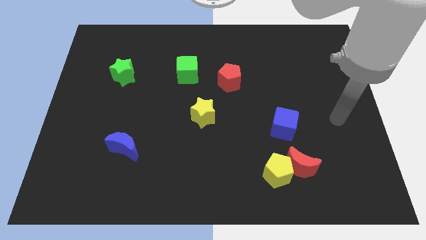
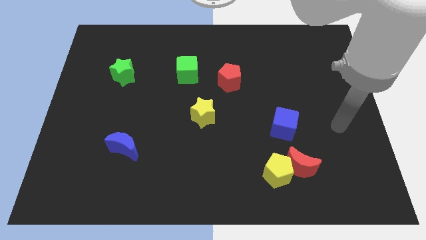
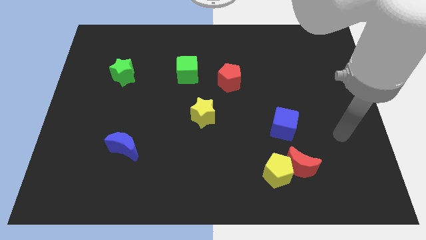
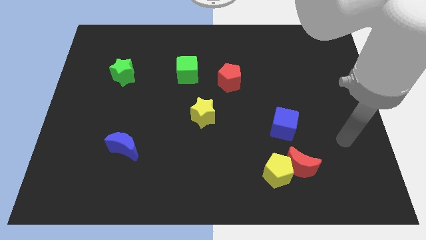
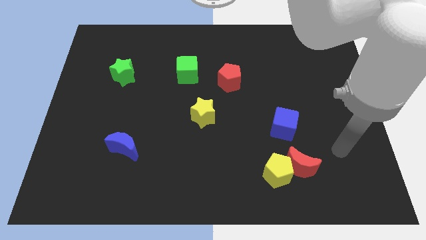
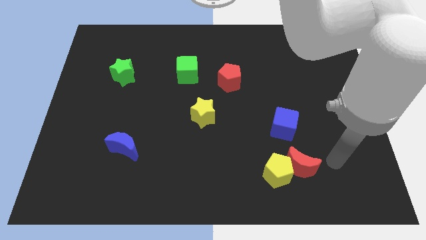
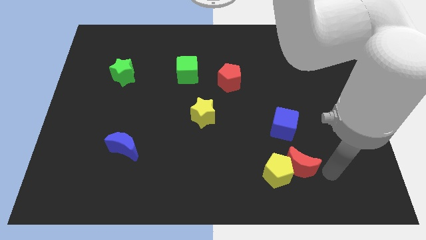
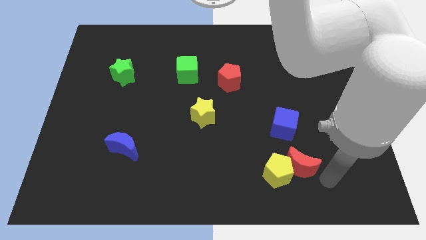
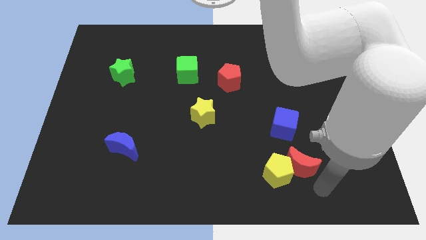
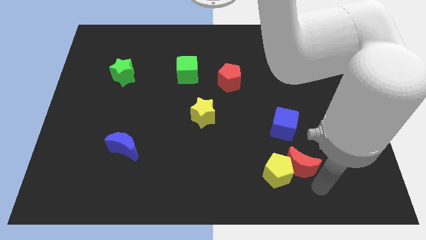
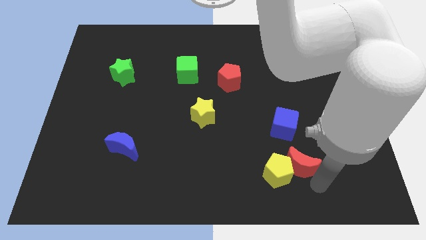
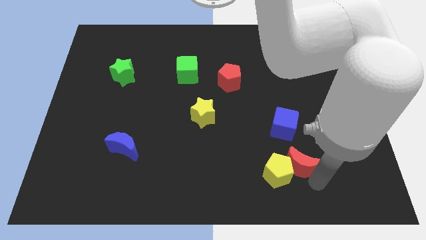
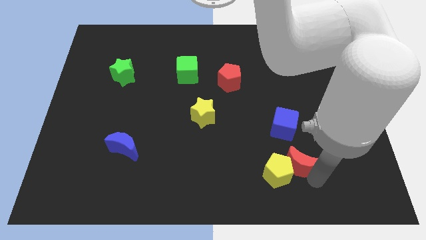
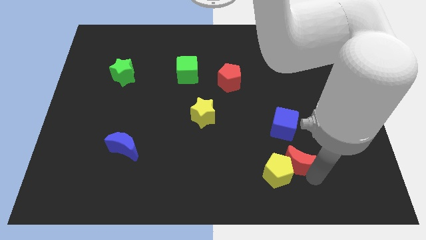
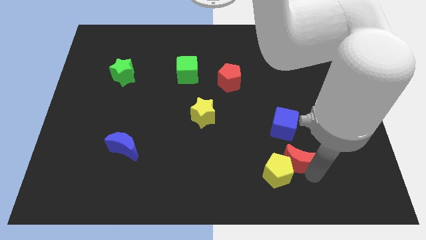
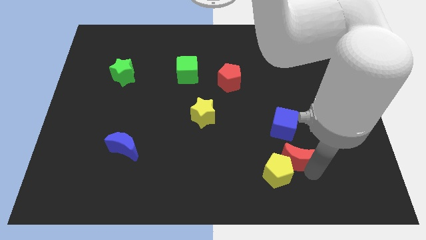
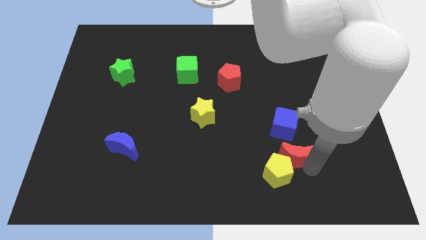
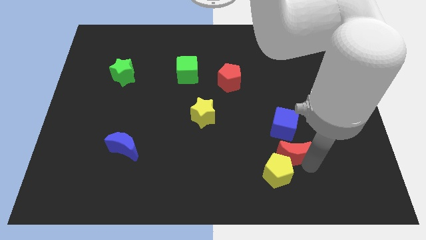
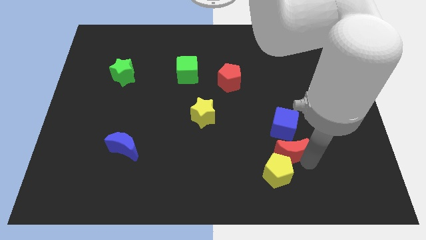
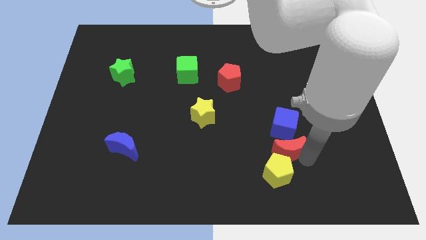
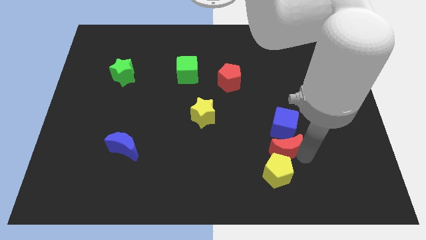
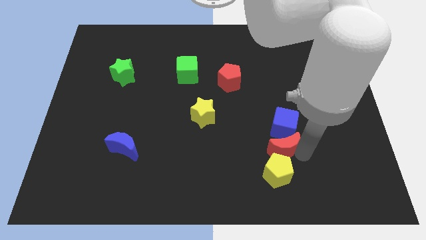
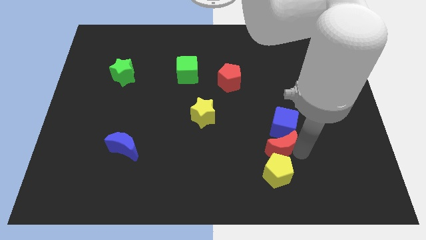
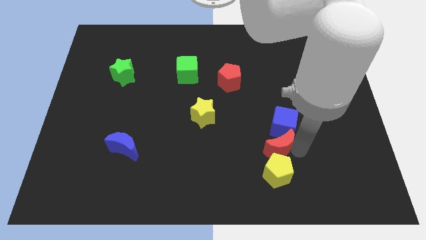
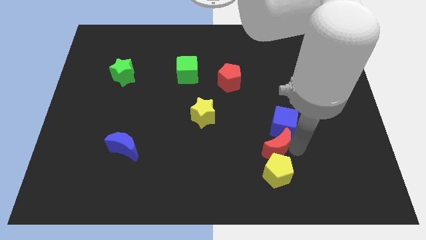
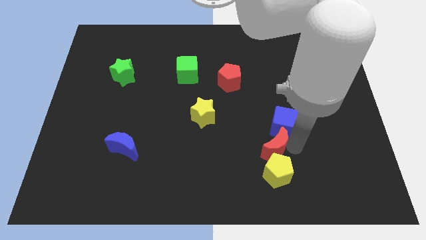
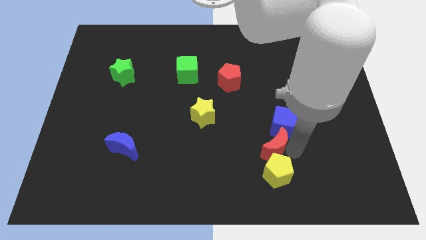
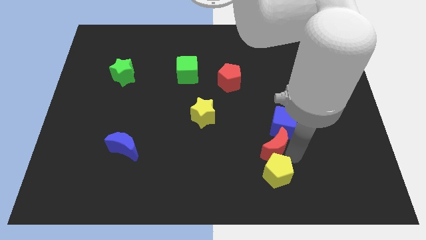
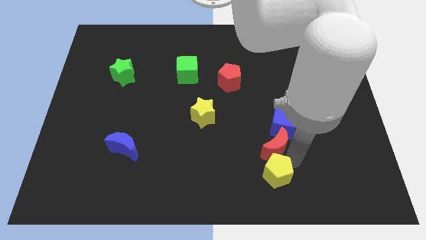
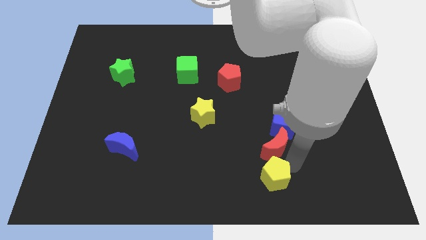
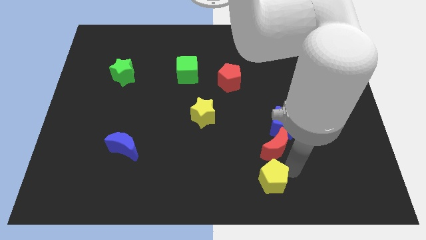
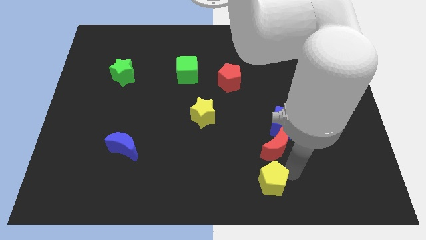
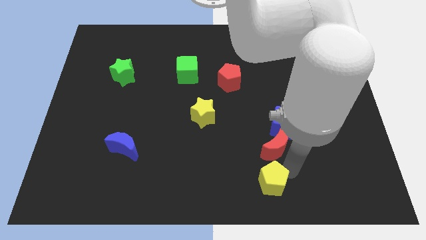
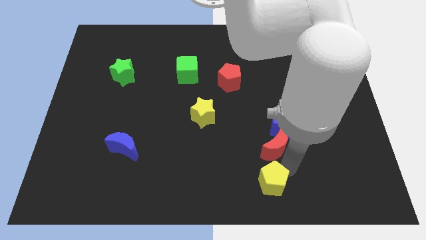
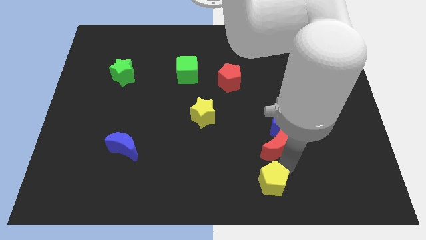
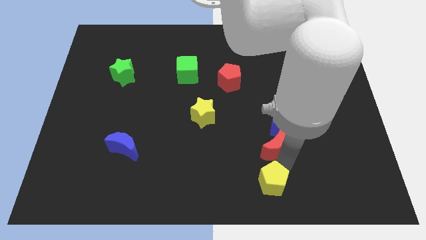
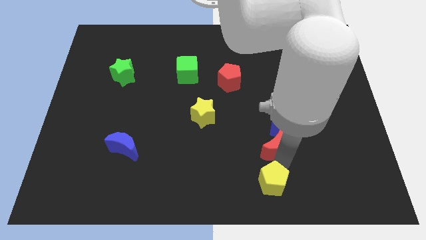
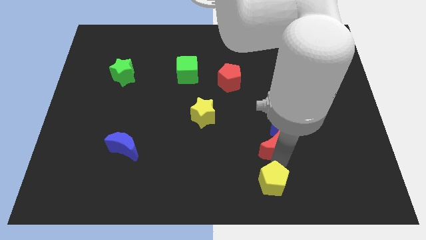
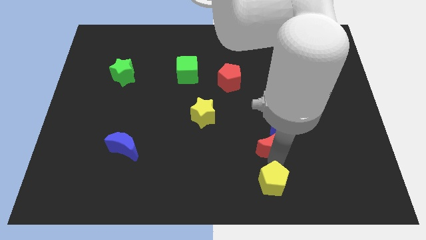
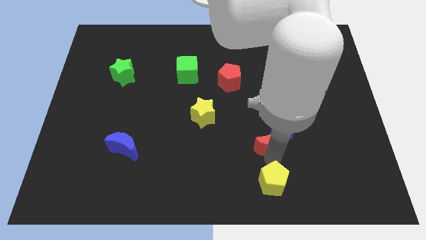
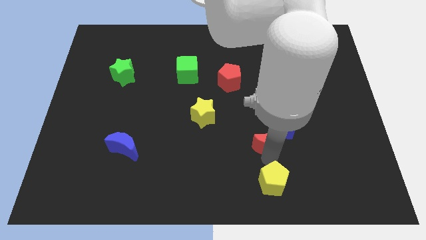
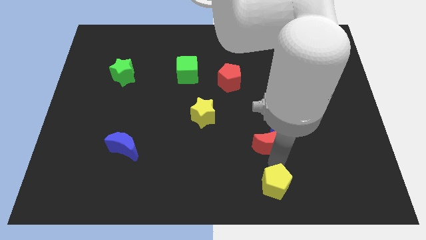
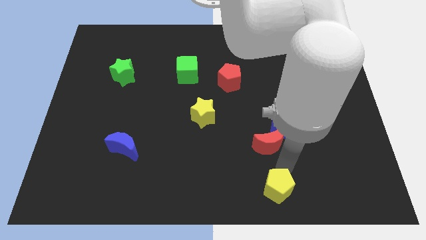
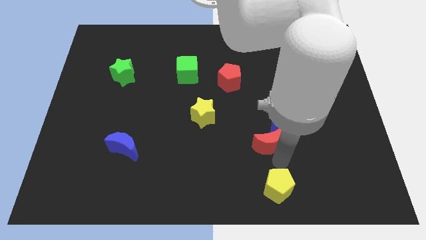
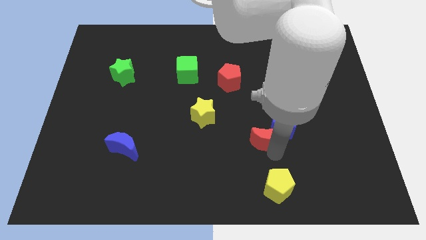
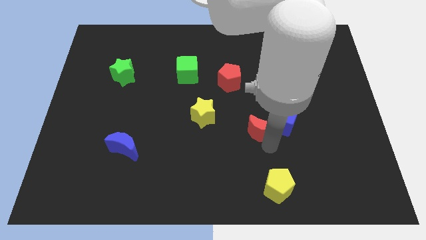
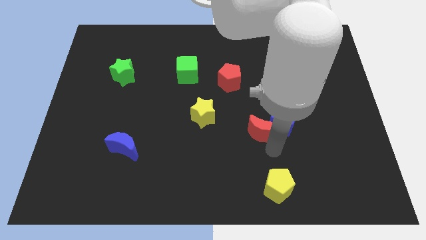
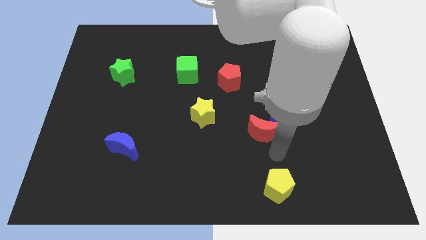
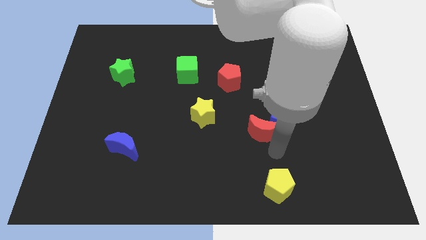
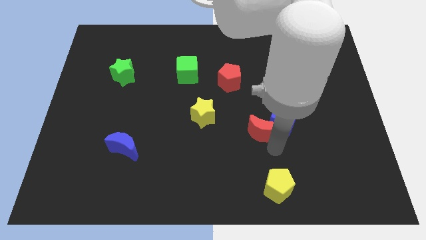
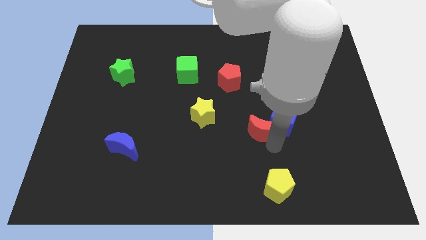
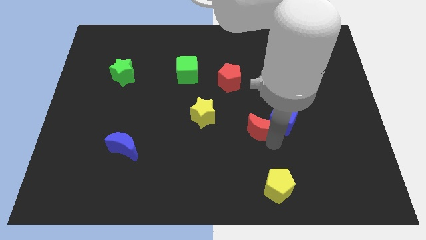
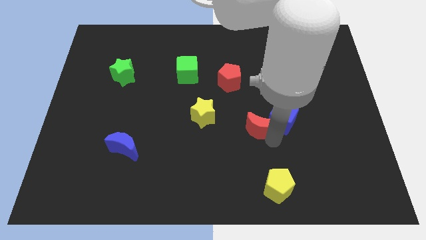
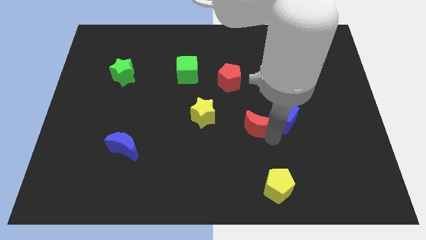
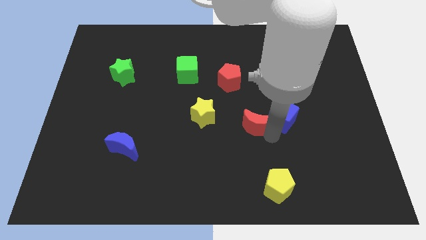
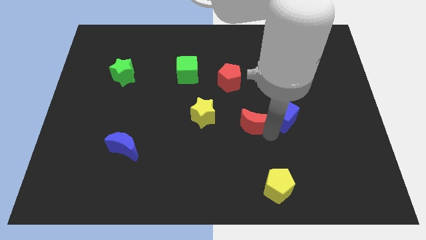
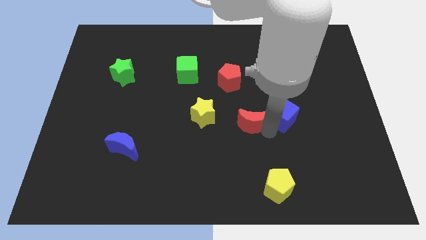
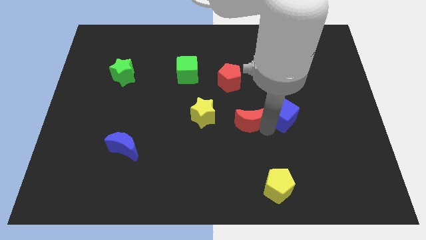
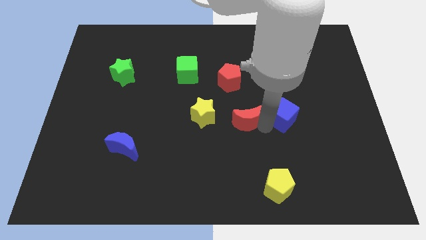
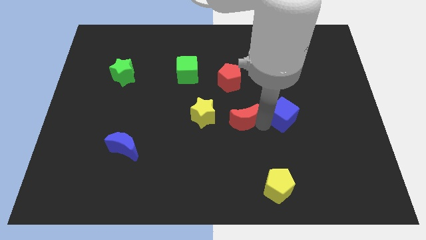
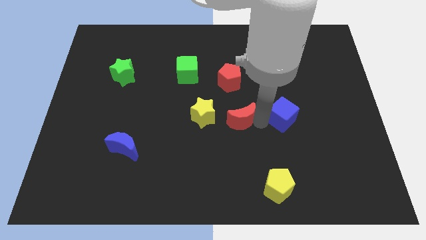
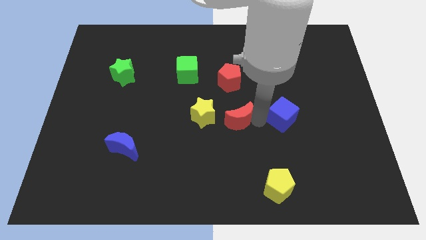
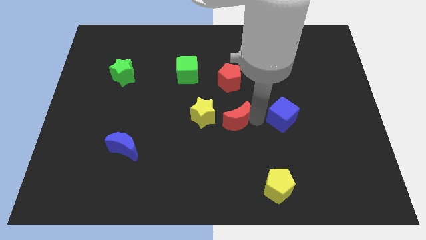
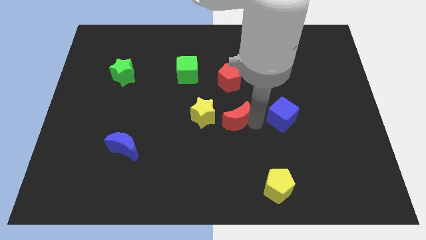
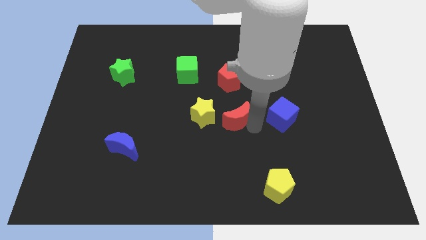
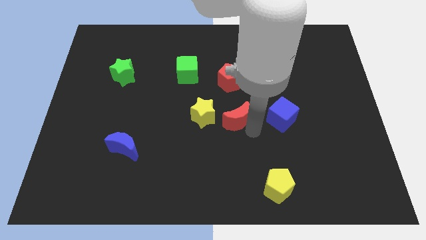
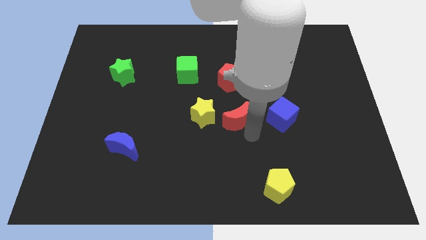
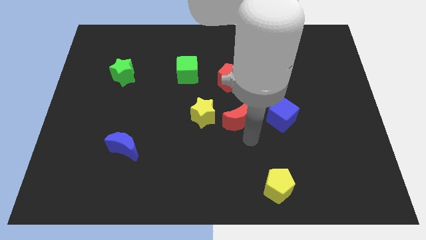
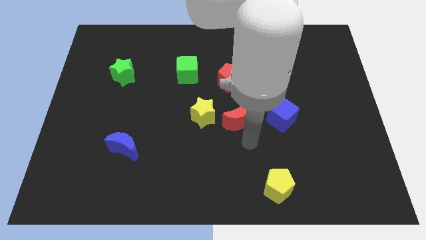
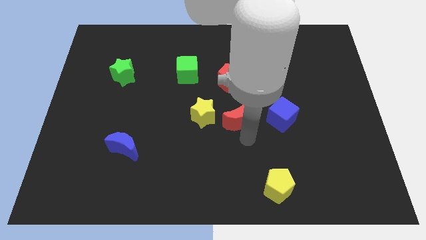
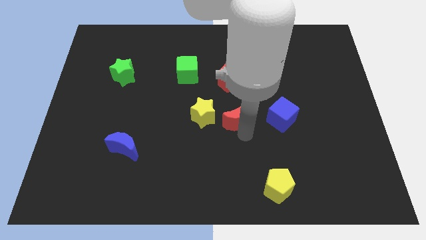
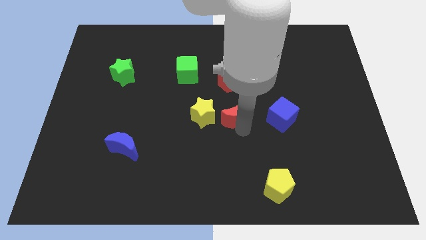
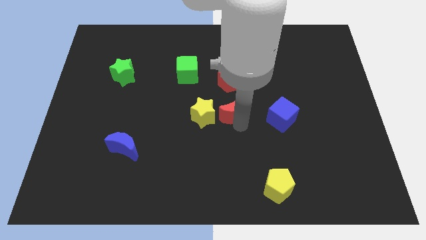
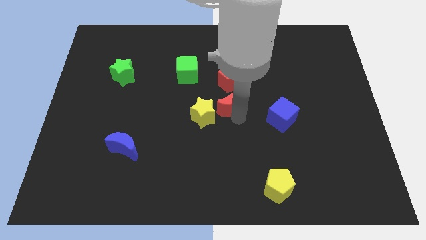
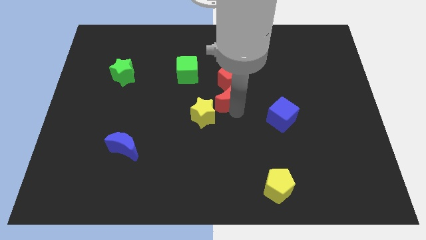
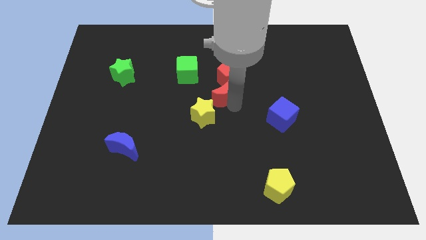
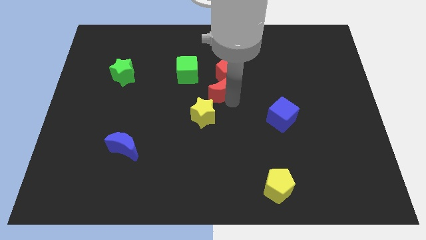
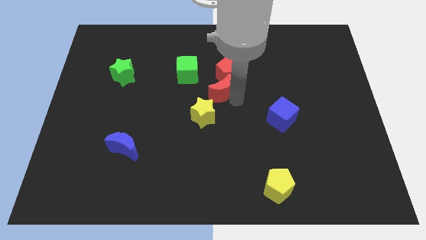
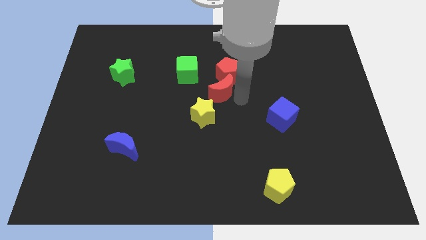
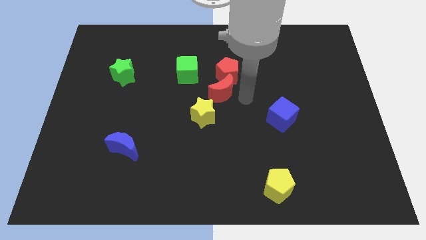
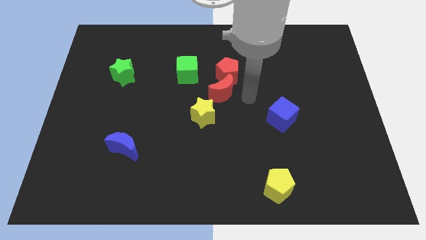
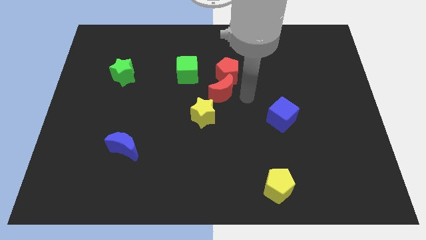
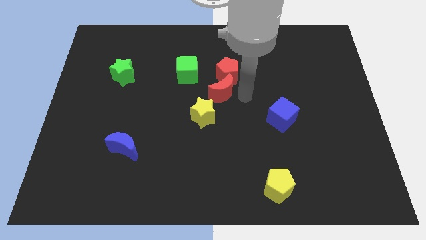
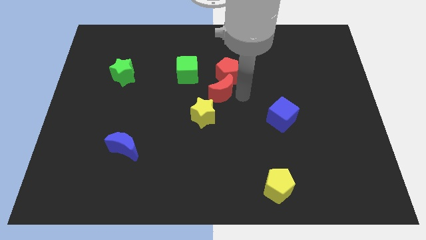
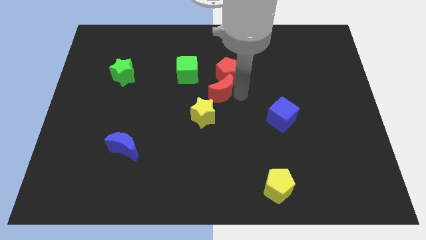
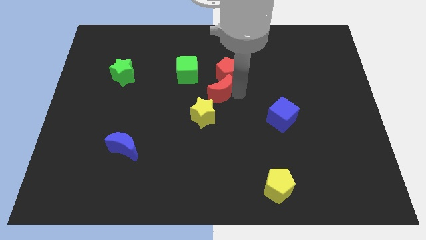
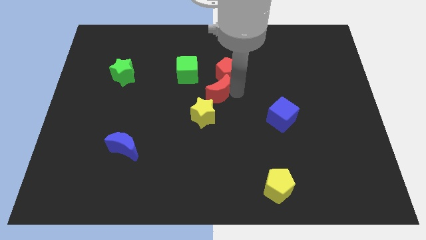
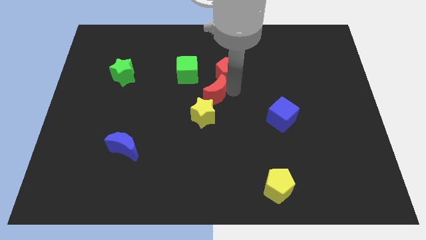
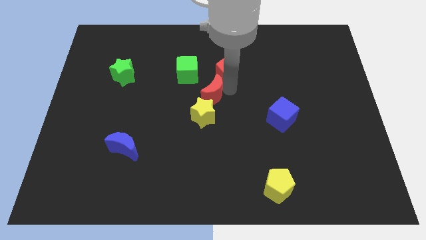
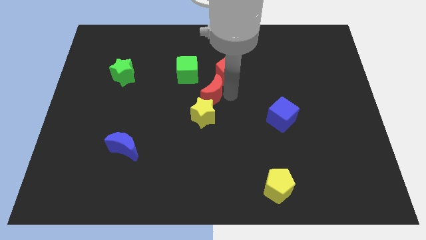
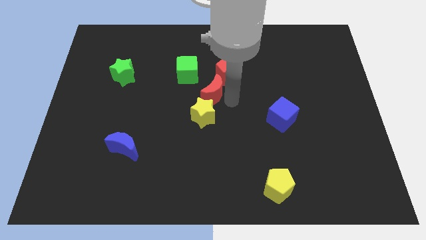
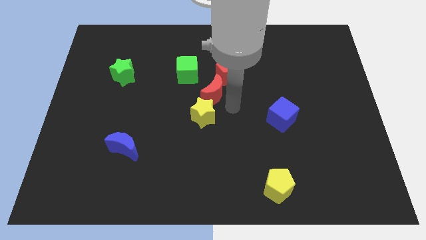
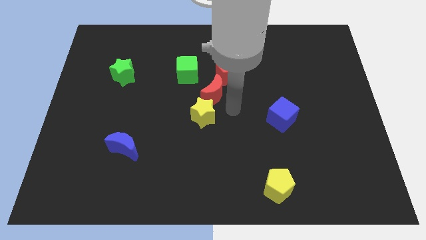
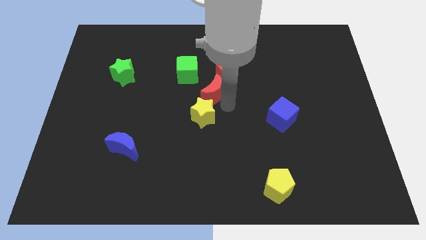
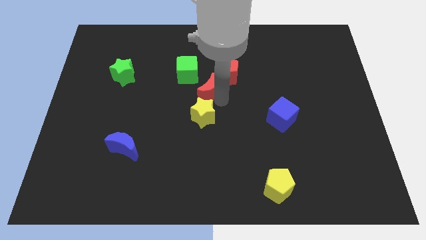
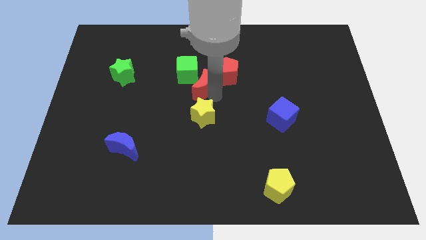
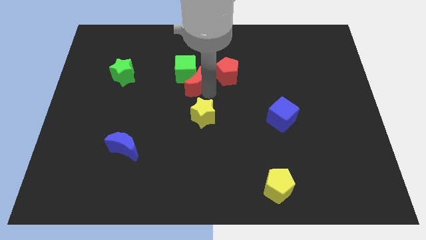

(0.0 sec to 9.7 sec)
move the red moon towards the green cube
